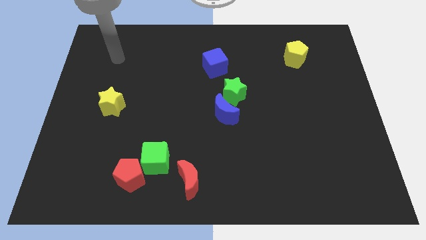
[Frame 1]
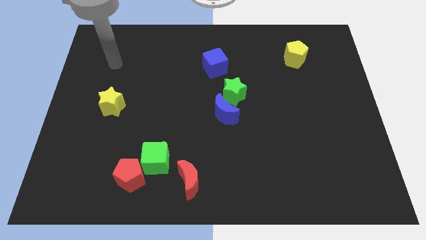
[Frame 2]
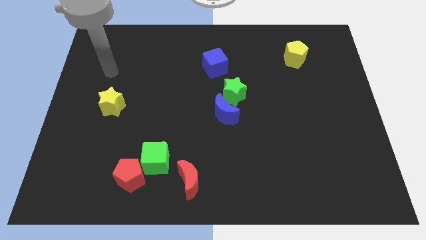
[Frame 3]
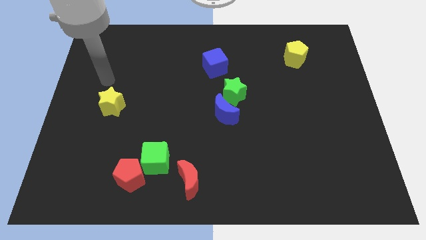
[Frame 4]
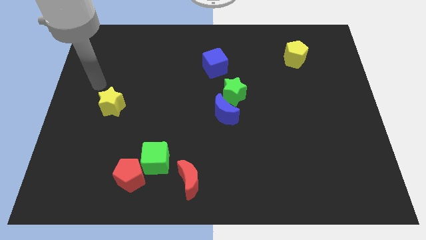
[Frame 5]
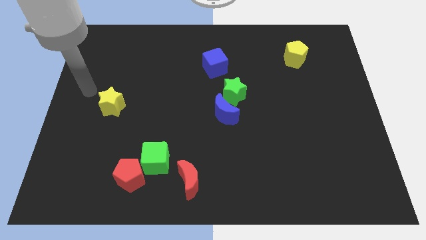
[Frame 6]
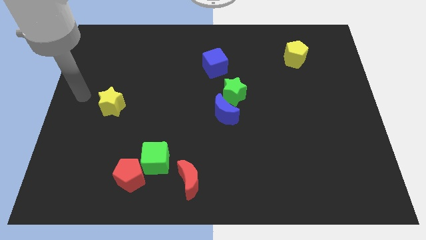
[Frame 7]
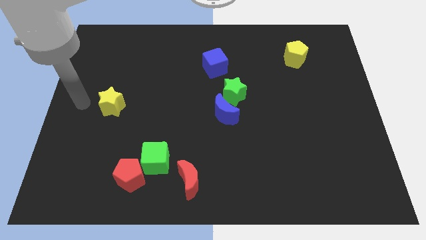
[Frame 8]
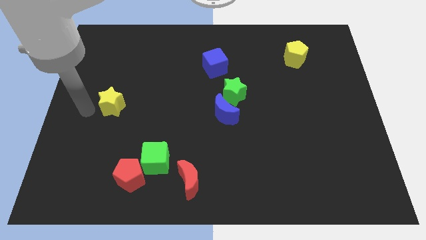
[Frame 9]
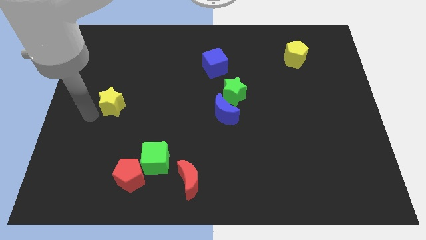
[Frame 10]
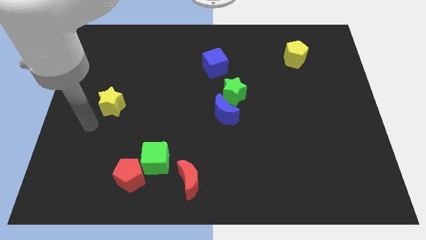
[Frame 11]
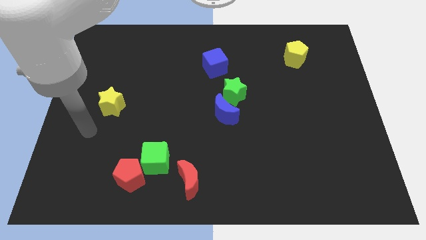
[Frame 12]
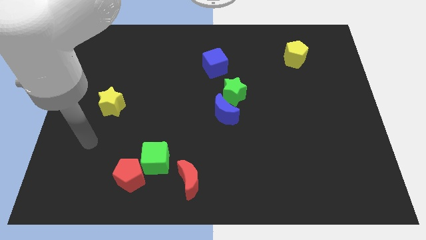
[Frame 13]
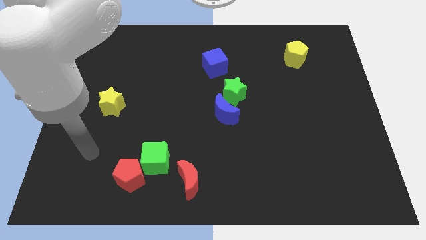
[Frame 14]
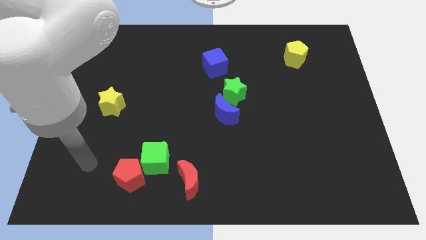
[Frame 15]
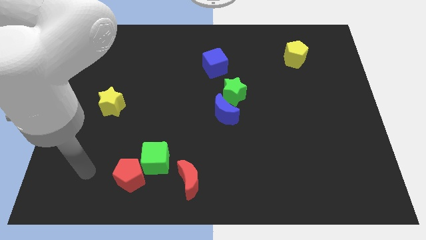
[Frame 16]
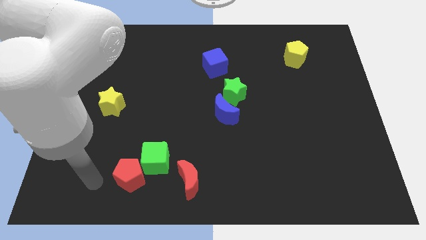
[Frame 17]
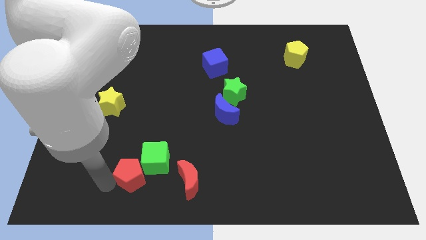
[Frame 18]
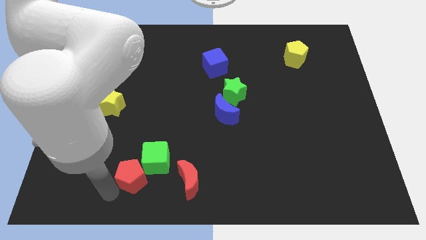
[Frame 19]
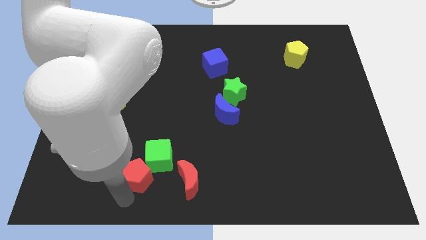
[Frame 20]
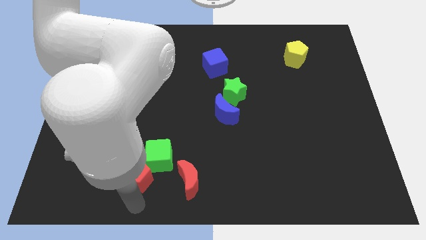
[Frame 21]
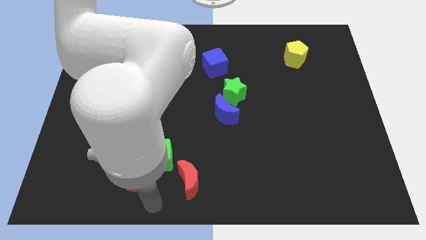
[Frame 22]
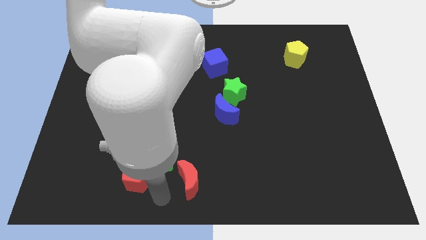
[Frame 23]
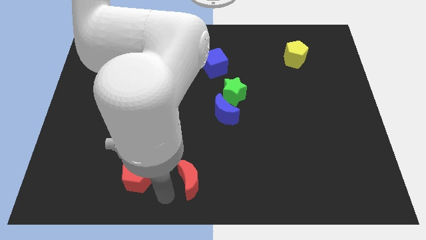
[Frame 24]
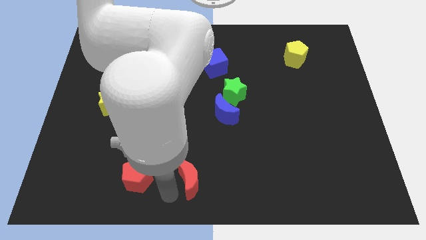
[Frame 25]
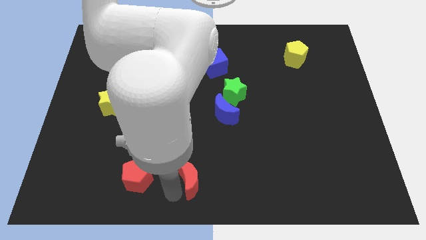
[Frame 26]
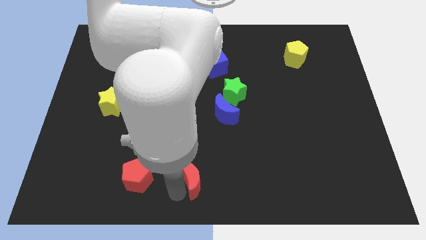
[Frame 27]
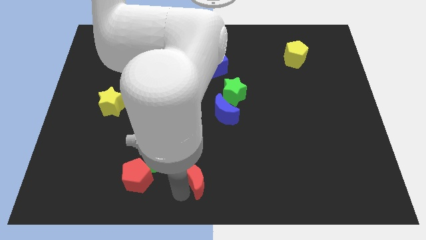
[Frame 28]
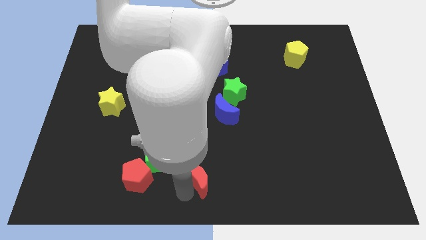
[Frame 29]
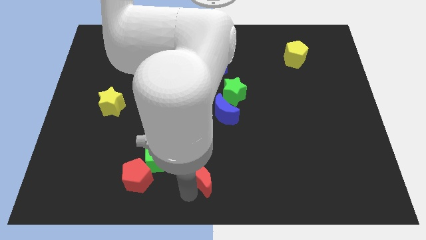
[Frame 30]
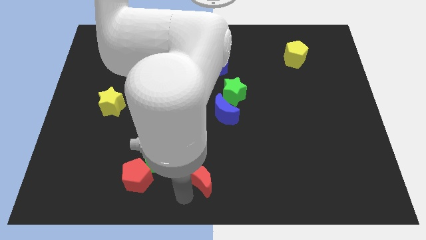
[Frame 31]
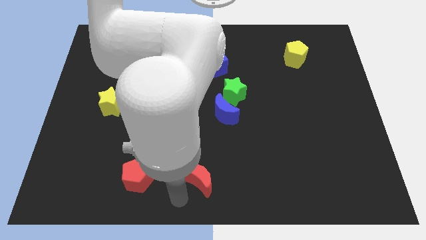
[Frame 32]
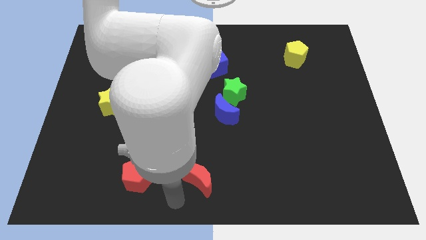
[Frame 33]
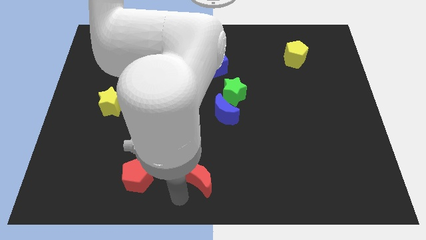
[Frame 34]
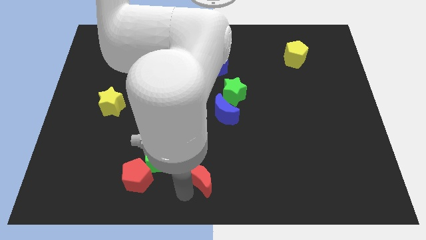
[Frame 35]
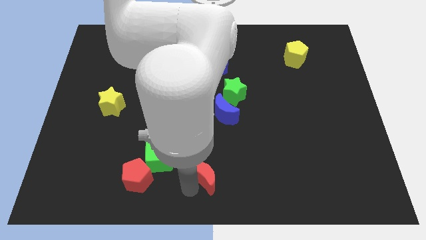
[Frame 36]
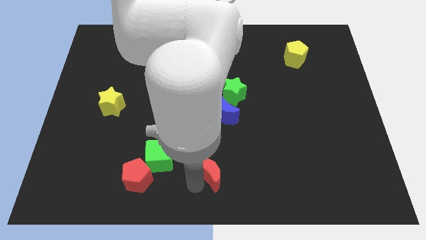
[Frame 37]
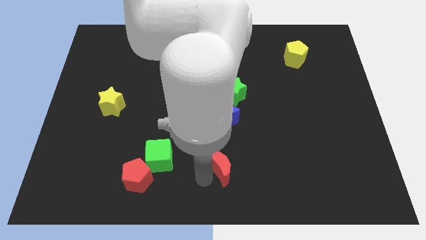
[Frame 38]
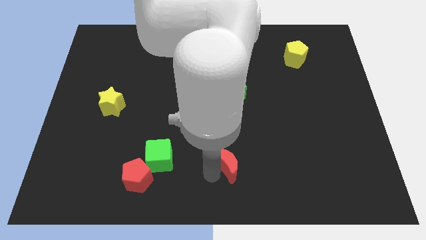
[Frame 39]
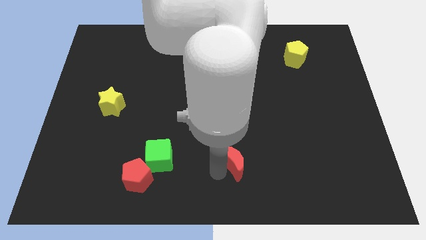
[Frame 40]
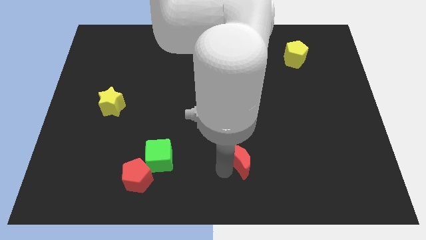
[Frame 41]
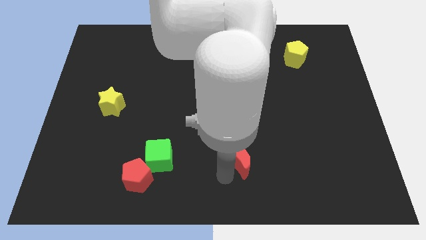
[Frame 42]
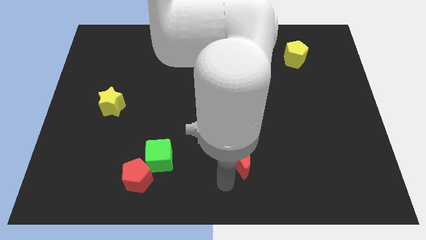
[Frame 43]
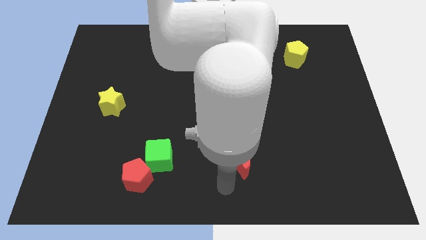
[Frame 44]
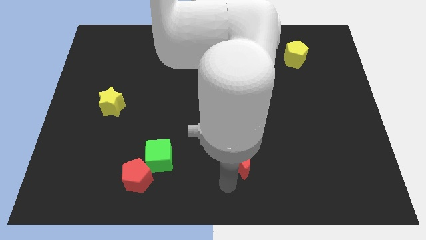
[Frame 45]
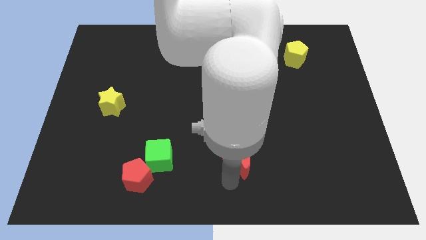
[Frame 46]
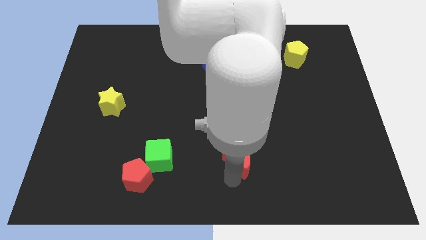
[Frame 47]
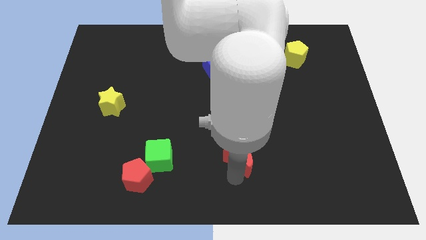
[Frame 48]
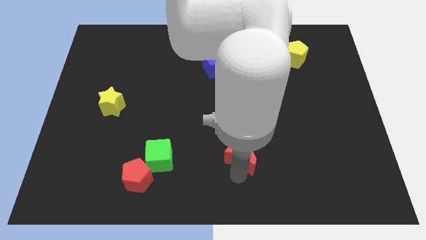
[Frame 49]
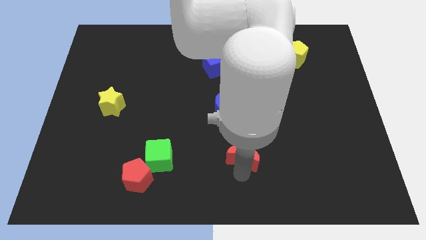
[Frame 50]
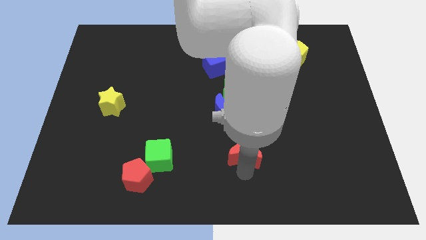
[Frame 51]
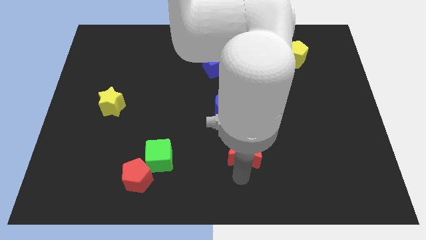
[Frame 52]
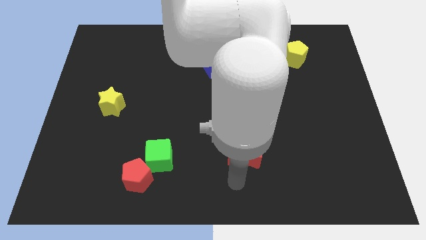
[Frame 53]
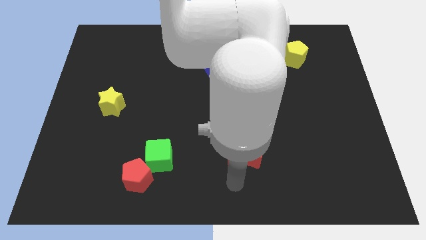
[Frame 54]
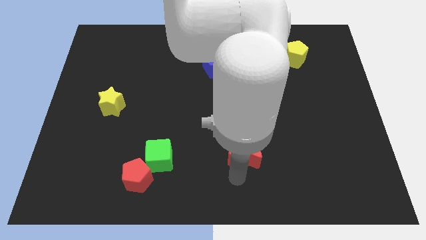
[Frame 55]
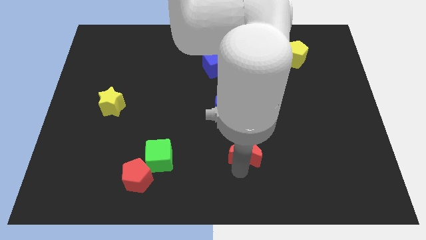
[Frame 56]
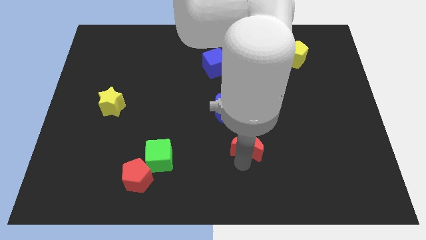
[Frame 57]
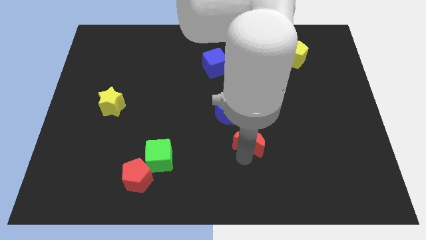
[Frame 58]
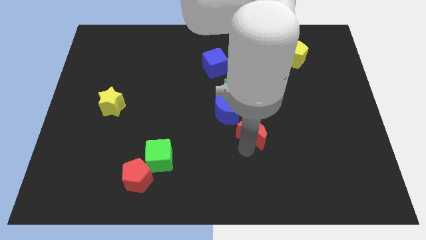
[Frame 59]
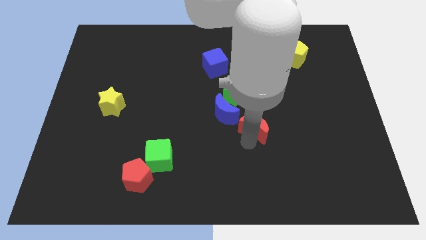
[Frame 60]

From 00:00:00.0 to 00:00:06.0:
move the red moon just right of the blue moon

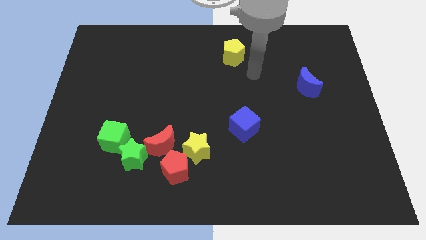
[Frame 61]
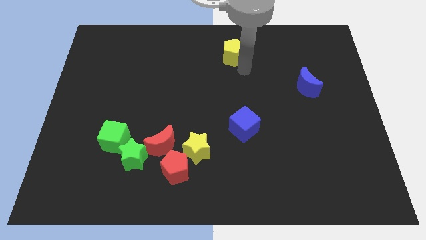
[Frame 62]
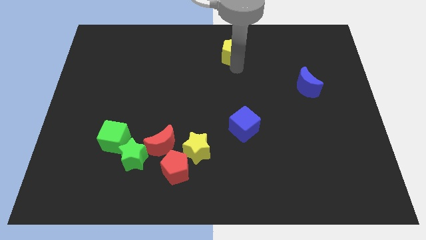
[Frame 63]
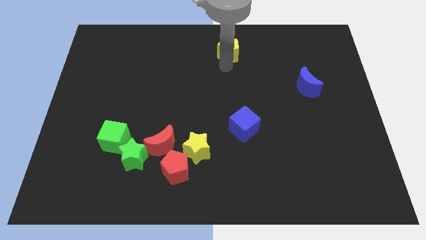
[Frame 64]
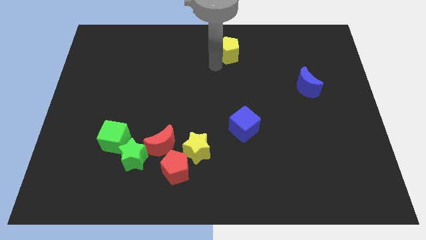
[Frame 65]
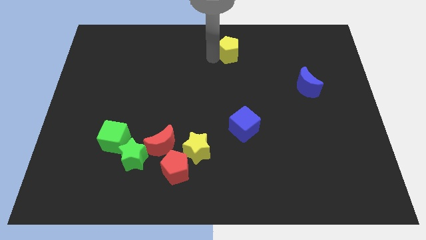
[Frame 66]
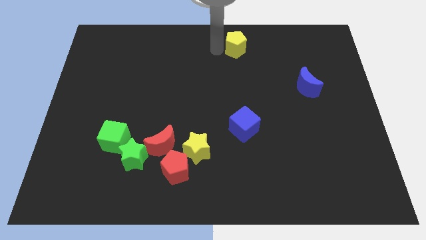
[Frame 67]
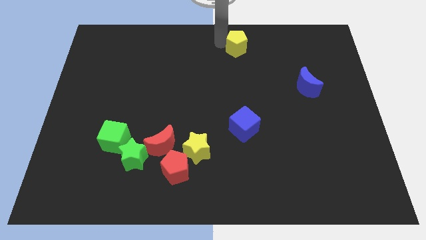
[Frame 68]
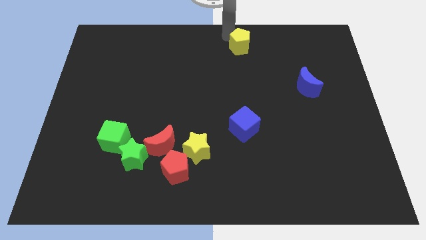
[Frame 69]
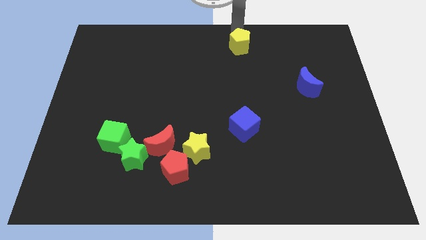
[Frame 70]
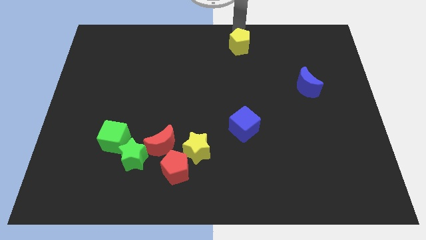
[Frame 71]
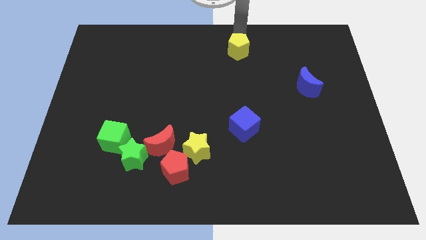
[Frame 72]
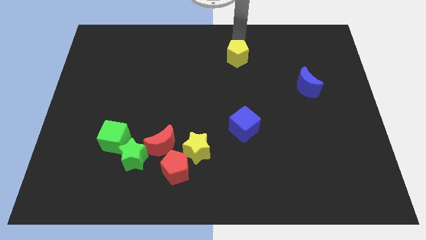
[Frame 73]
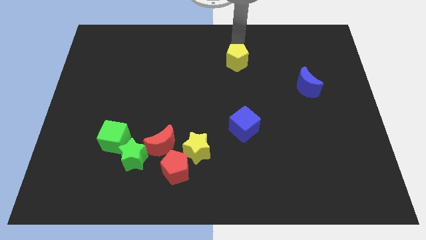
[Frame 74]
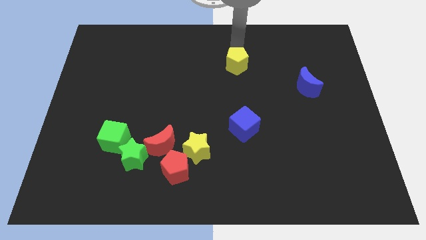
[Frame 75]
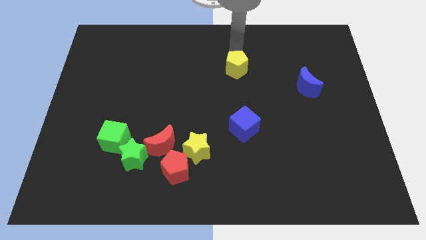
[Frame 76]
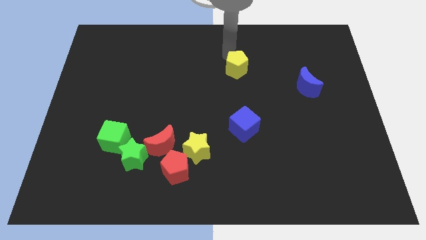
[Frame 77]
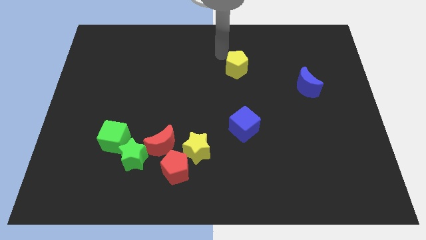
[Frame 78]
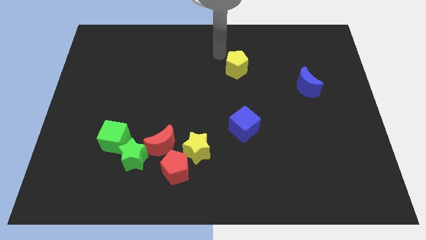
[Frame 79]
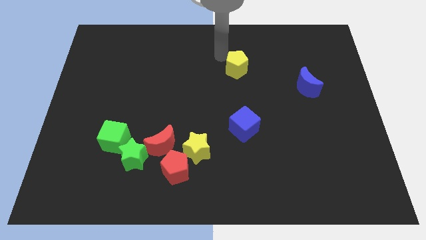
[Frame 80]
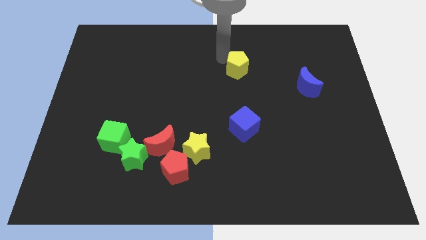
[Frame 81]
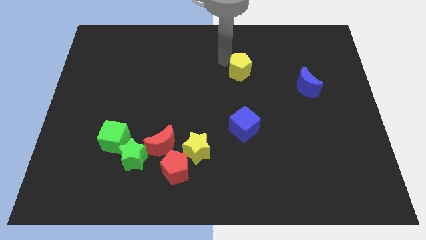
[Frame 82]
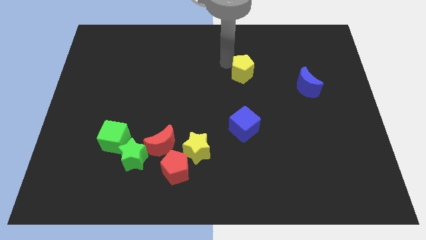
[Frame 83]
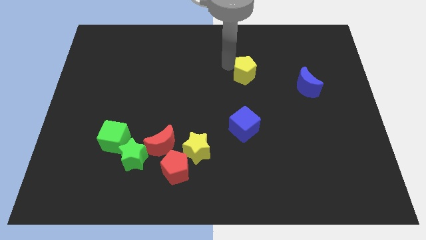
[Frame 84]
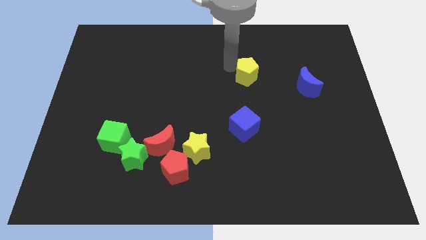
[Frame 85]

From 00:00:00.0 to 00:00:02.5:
move the yellow pentagon to the left of the blue moon
